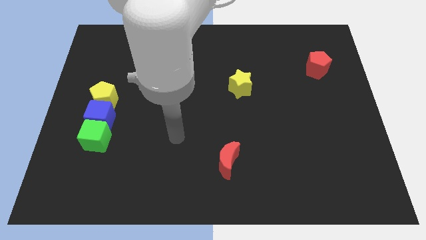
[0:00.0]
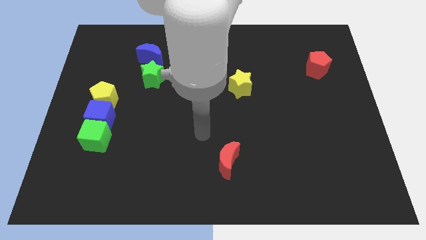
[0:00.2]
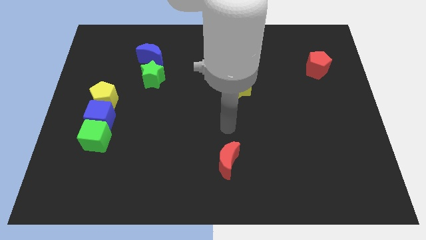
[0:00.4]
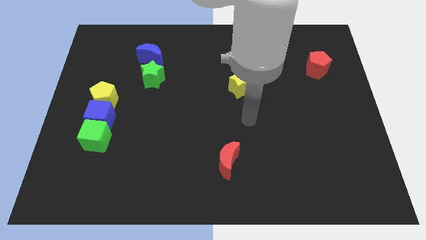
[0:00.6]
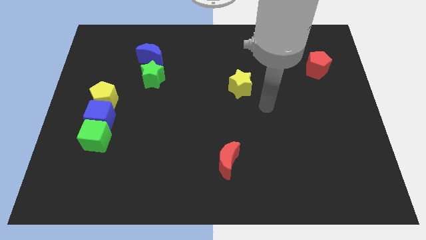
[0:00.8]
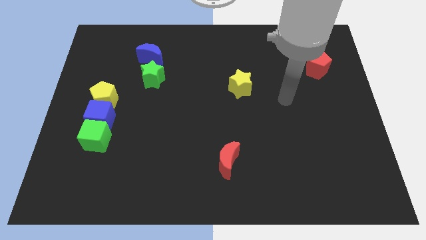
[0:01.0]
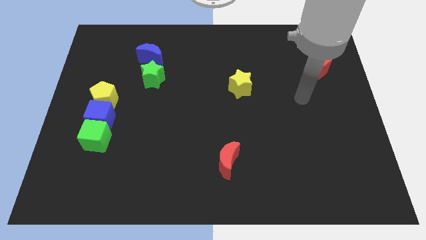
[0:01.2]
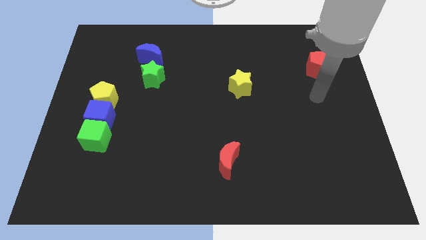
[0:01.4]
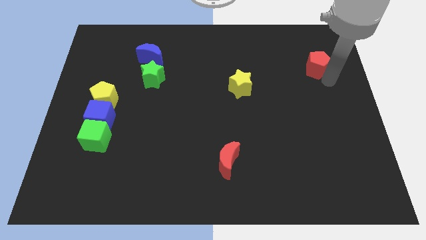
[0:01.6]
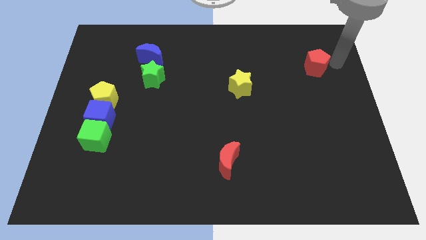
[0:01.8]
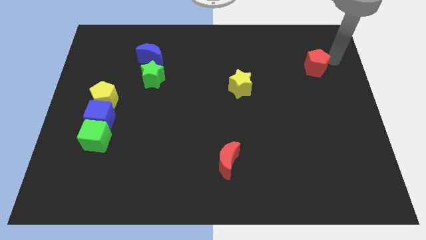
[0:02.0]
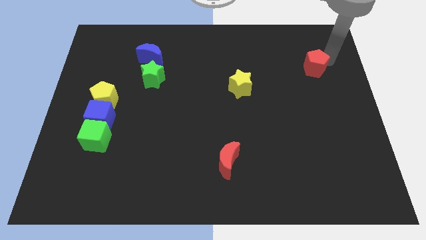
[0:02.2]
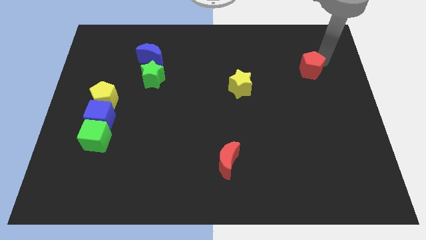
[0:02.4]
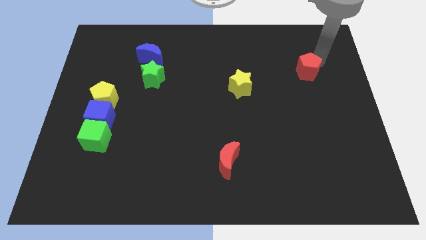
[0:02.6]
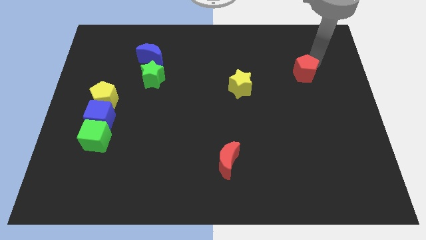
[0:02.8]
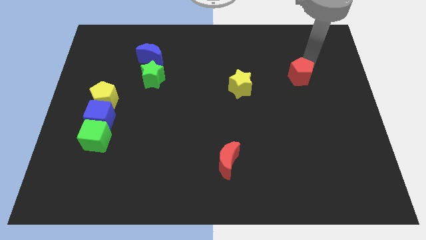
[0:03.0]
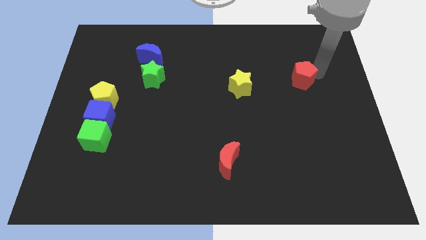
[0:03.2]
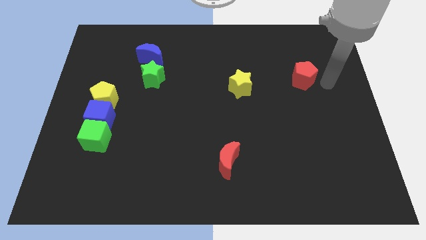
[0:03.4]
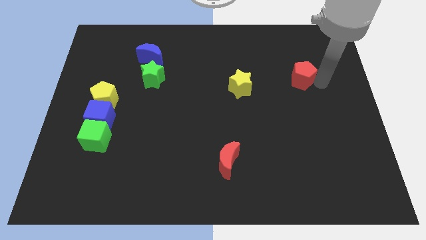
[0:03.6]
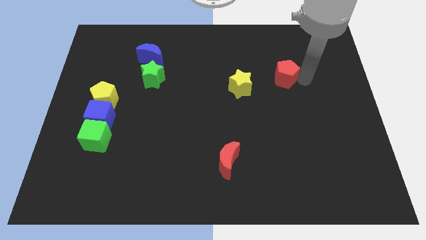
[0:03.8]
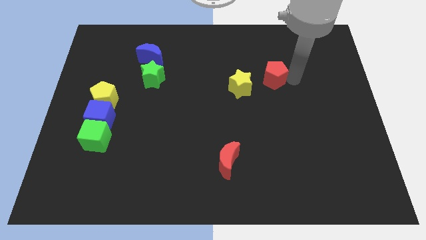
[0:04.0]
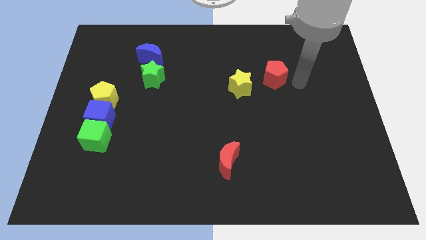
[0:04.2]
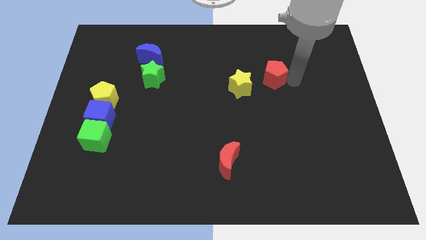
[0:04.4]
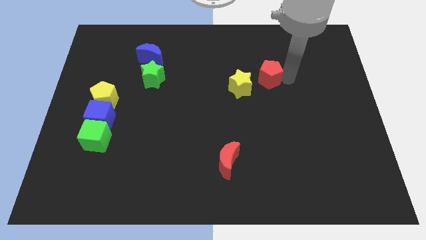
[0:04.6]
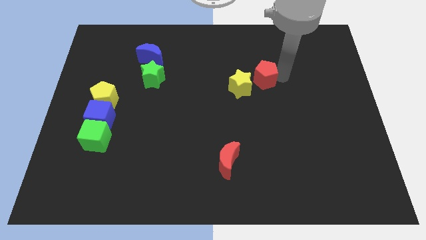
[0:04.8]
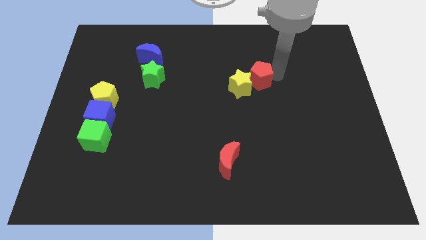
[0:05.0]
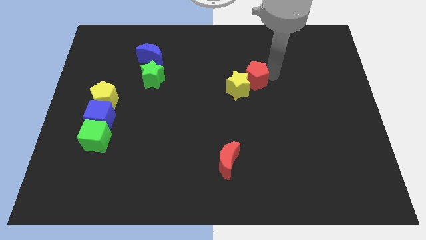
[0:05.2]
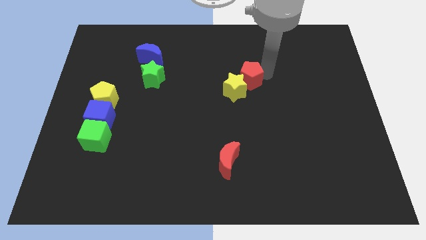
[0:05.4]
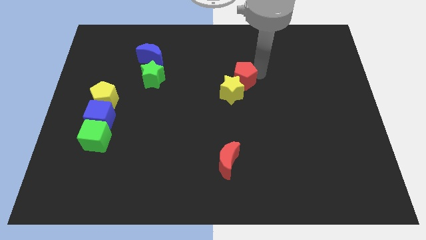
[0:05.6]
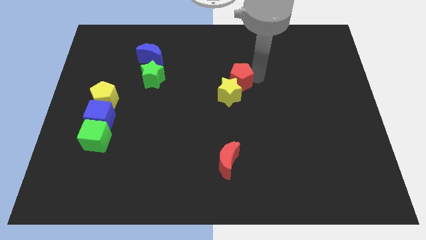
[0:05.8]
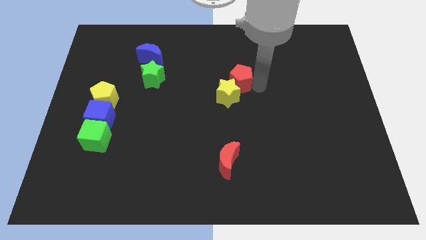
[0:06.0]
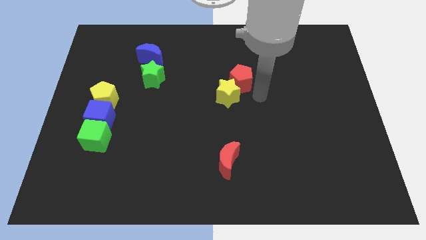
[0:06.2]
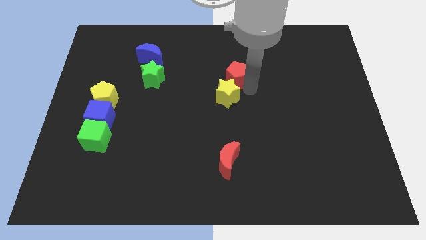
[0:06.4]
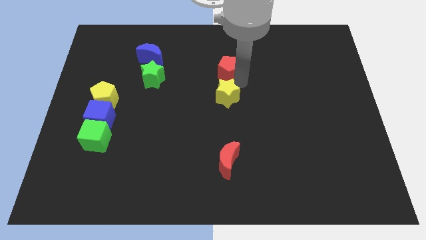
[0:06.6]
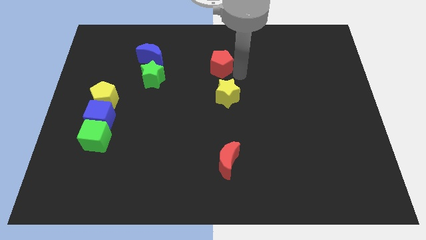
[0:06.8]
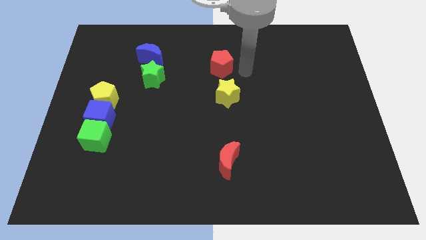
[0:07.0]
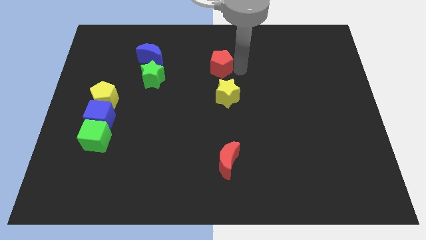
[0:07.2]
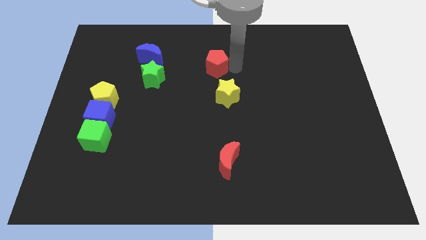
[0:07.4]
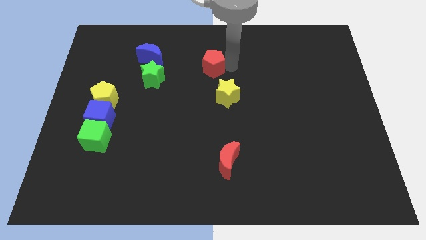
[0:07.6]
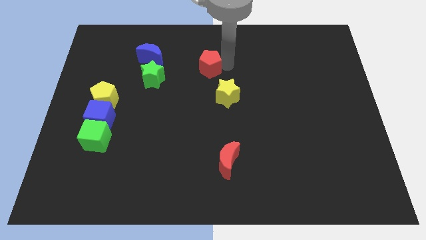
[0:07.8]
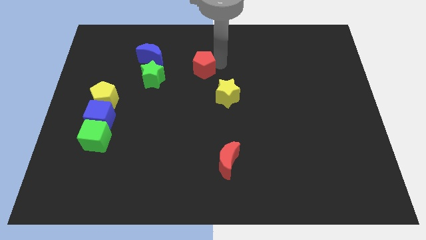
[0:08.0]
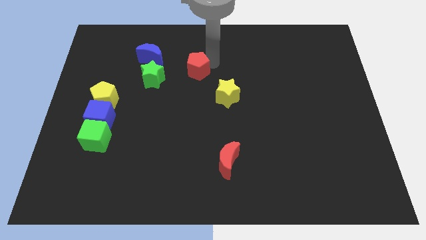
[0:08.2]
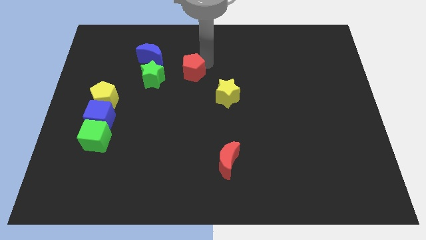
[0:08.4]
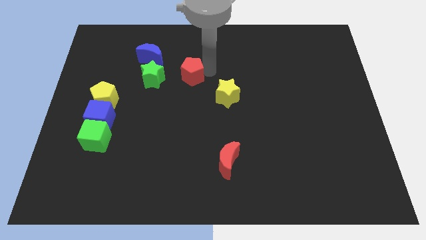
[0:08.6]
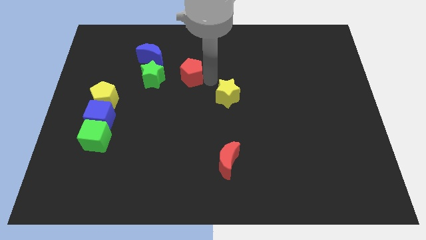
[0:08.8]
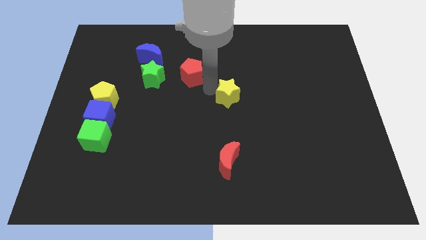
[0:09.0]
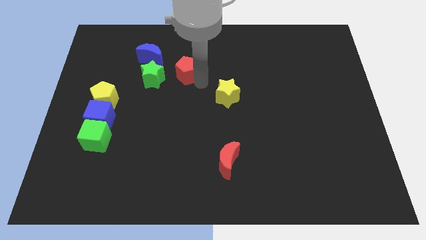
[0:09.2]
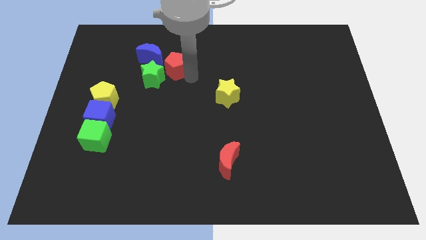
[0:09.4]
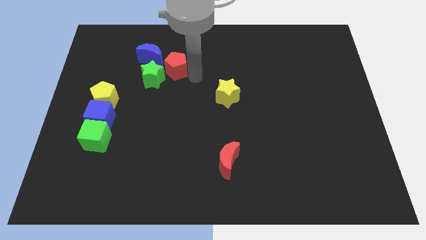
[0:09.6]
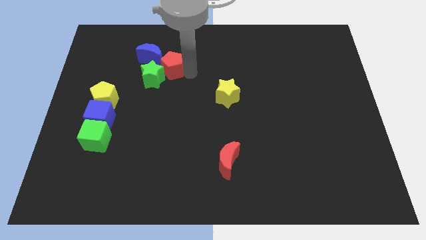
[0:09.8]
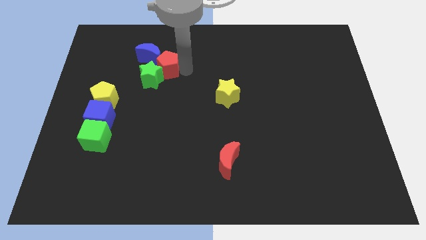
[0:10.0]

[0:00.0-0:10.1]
slide the red pentagon to the blue moon

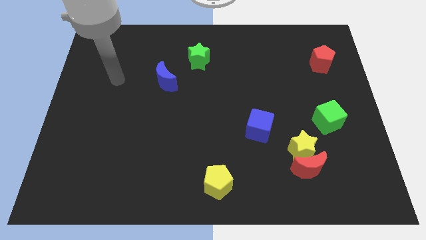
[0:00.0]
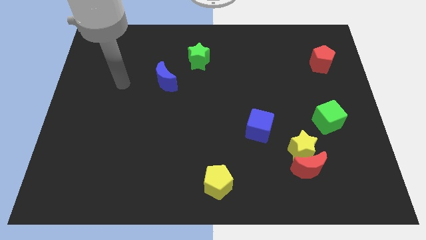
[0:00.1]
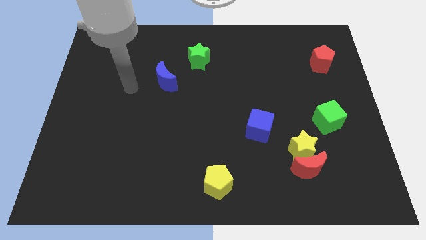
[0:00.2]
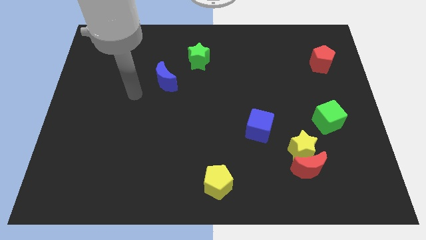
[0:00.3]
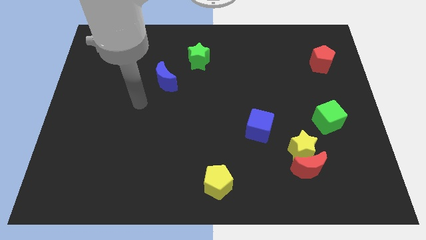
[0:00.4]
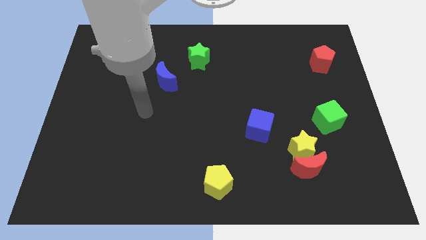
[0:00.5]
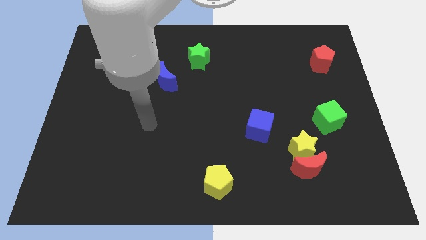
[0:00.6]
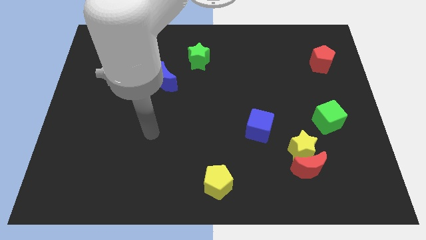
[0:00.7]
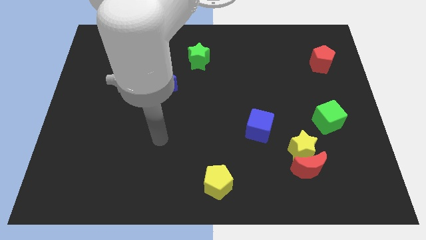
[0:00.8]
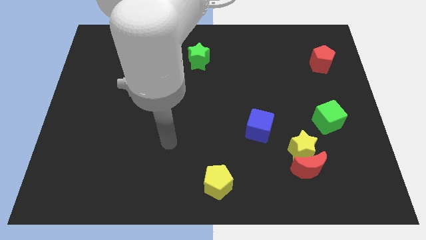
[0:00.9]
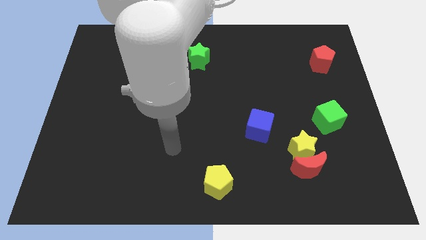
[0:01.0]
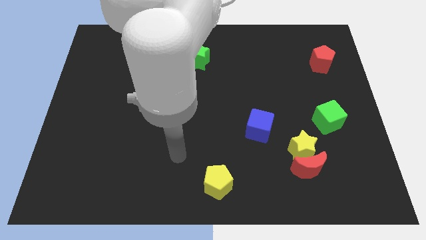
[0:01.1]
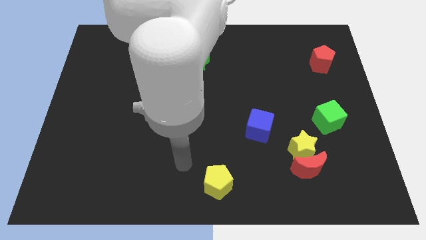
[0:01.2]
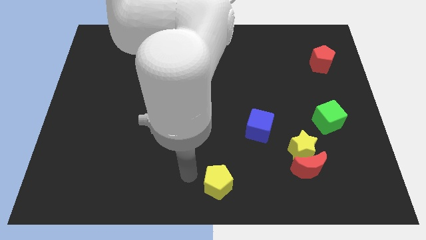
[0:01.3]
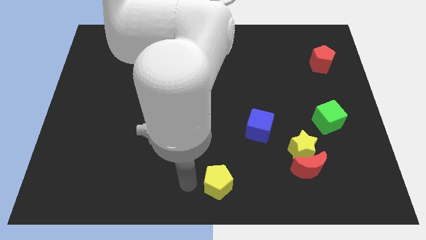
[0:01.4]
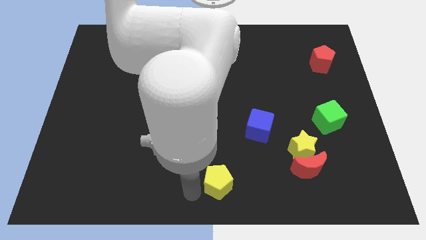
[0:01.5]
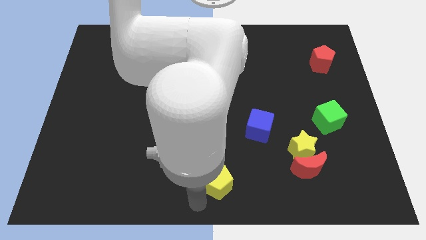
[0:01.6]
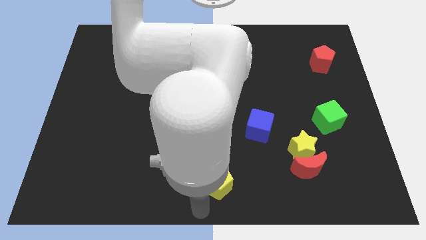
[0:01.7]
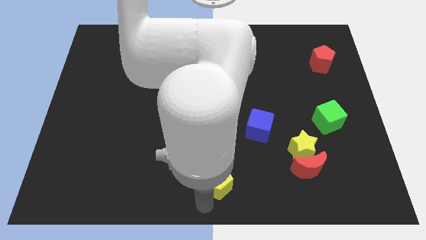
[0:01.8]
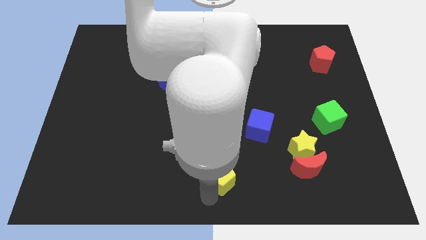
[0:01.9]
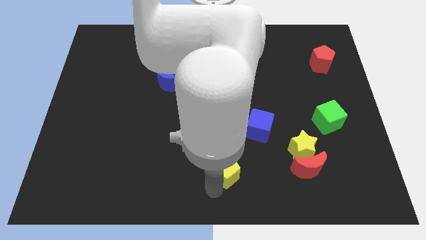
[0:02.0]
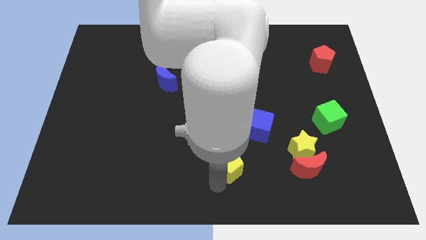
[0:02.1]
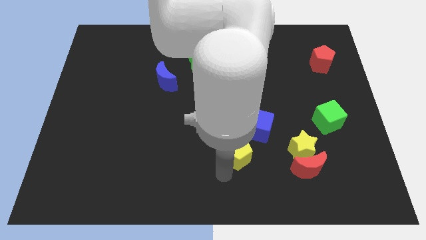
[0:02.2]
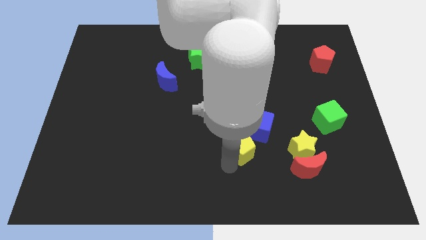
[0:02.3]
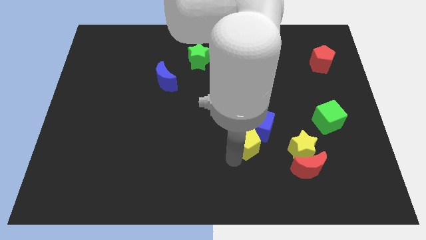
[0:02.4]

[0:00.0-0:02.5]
slide the yellow pentagon close to the blue cube

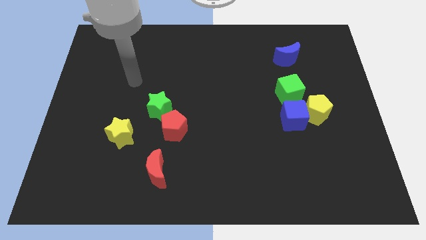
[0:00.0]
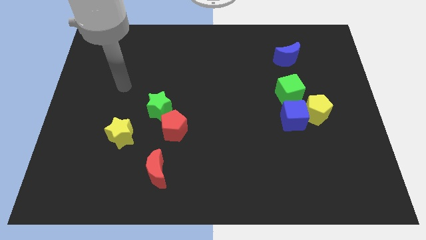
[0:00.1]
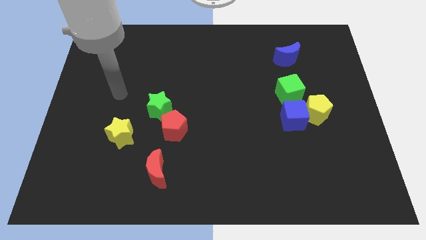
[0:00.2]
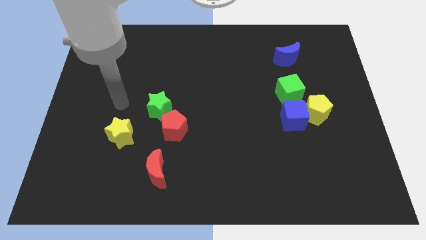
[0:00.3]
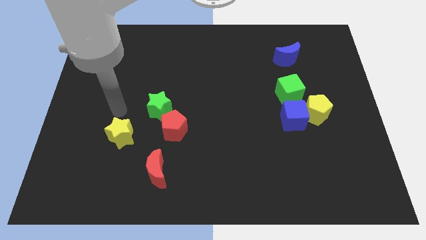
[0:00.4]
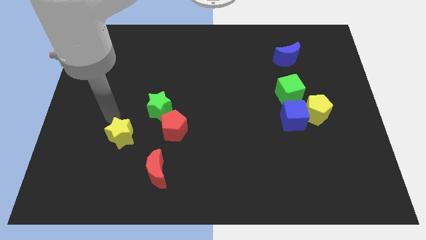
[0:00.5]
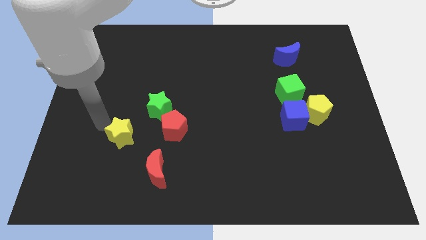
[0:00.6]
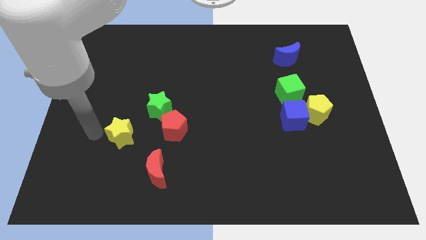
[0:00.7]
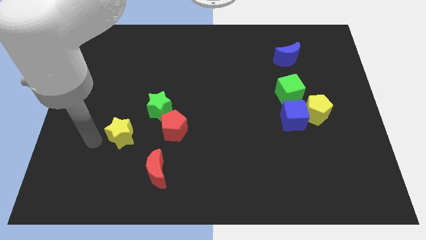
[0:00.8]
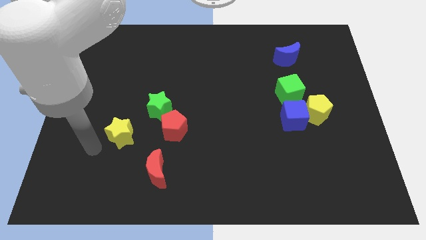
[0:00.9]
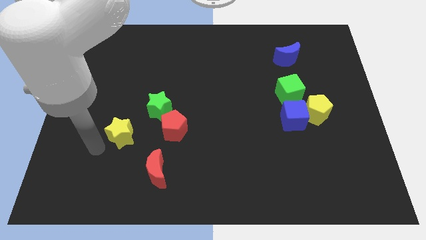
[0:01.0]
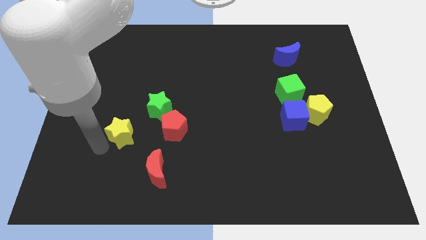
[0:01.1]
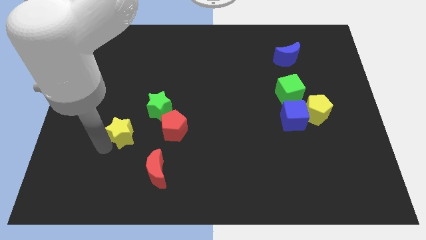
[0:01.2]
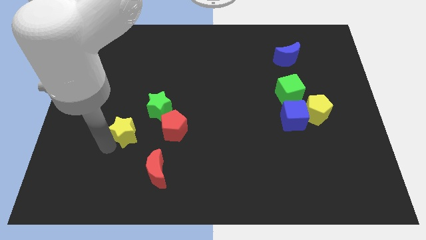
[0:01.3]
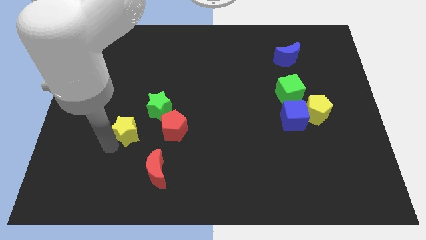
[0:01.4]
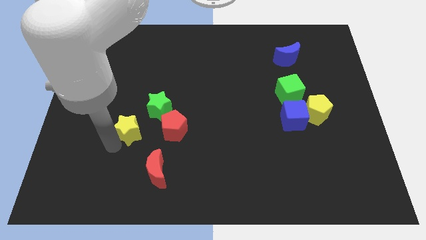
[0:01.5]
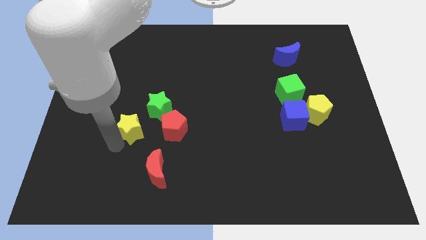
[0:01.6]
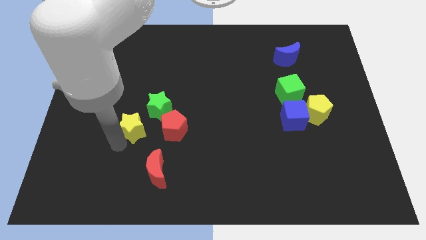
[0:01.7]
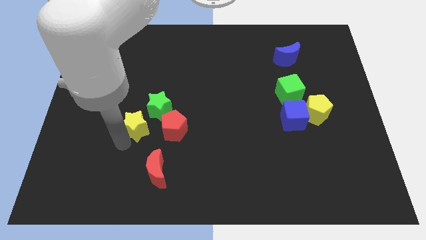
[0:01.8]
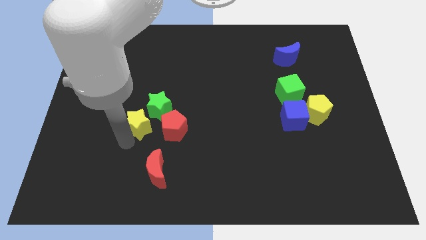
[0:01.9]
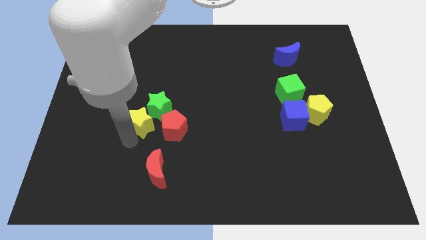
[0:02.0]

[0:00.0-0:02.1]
put the yellow star close to the green star
